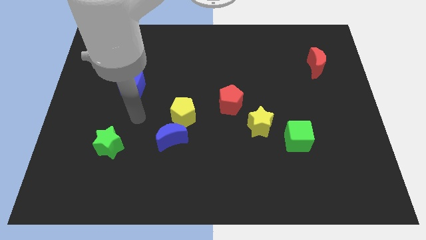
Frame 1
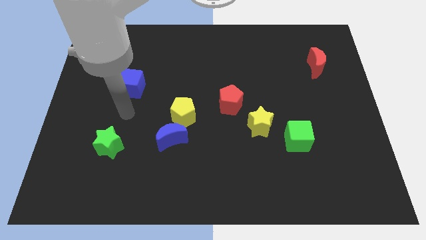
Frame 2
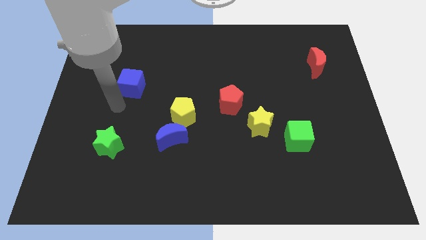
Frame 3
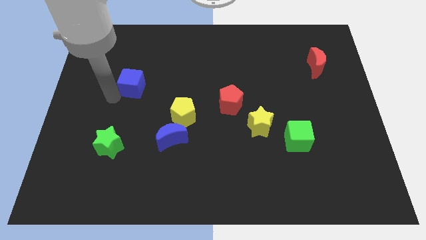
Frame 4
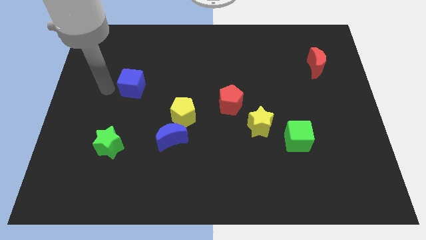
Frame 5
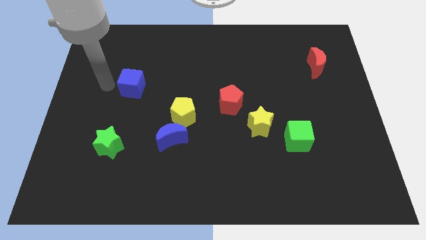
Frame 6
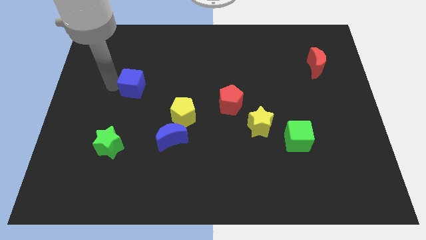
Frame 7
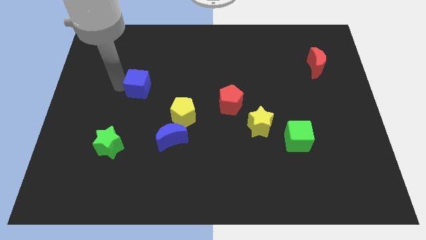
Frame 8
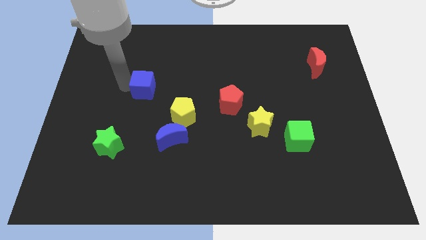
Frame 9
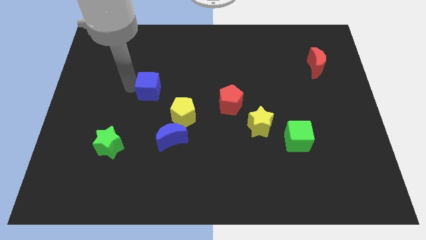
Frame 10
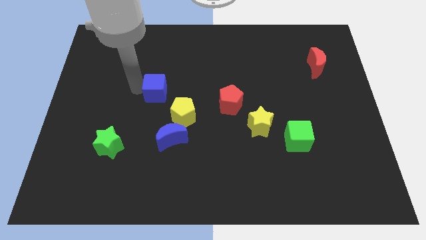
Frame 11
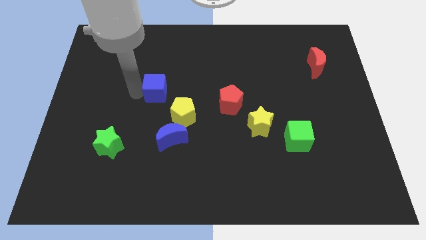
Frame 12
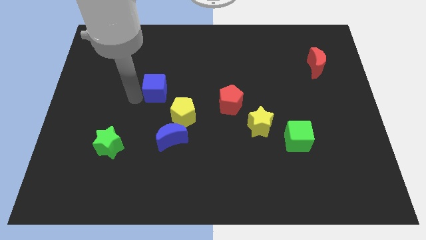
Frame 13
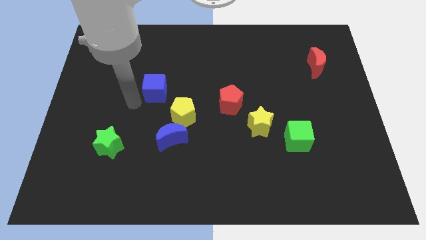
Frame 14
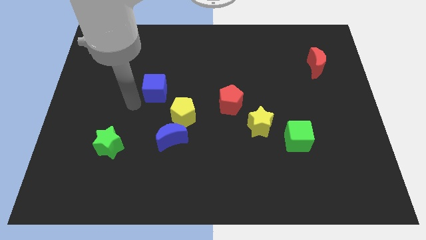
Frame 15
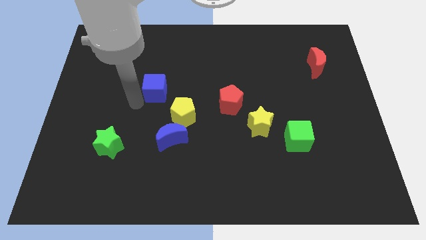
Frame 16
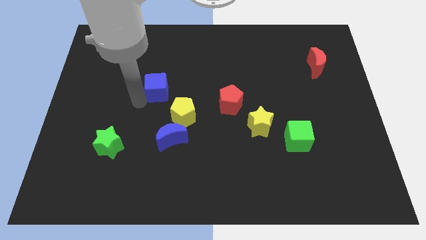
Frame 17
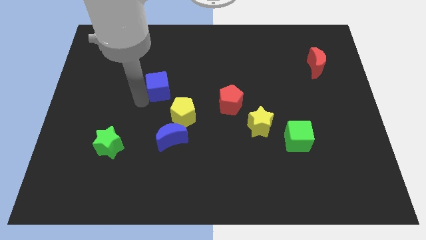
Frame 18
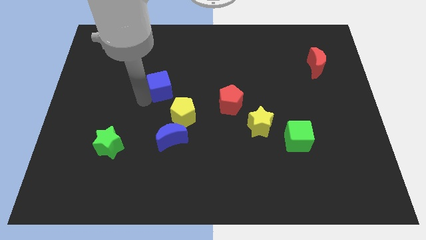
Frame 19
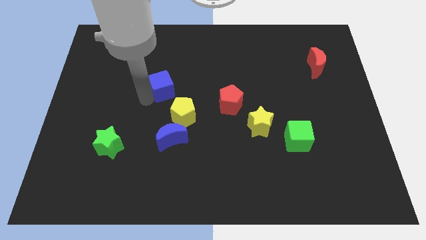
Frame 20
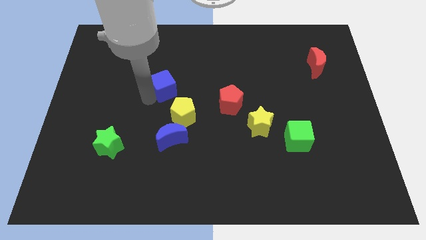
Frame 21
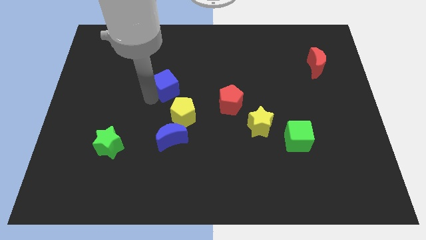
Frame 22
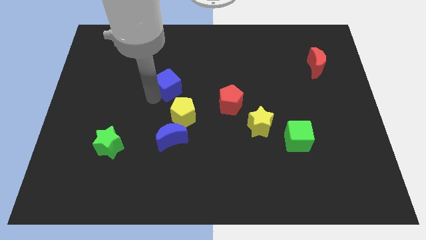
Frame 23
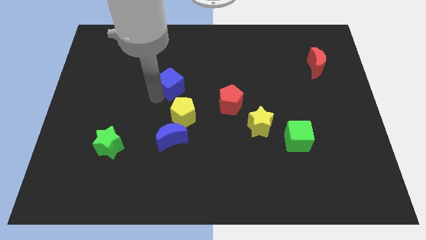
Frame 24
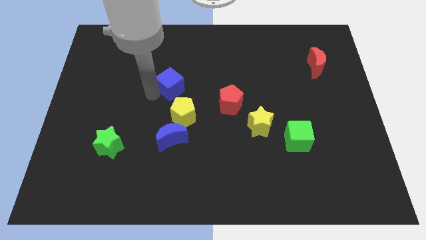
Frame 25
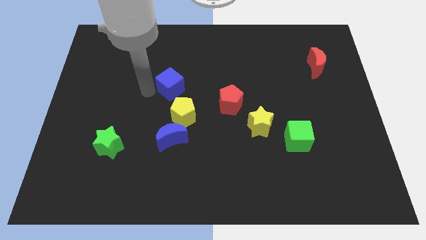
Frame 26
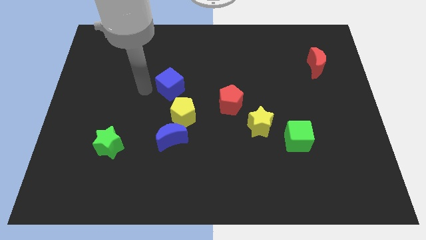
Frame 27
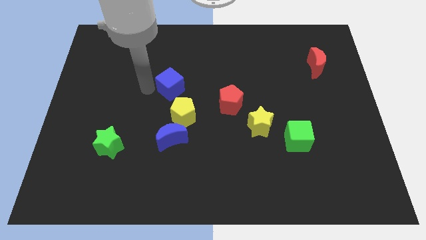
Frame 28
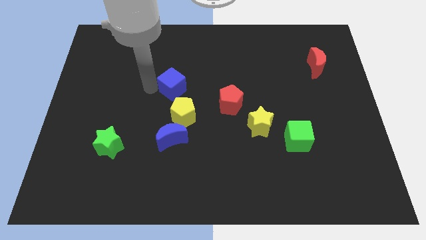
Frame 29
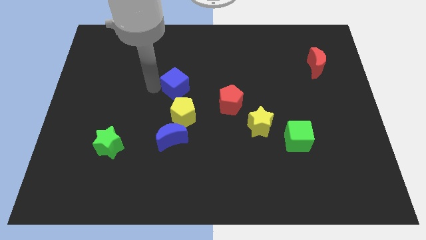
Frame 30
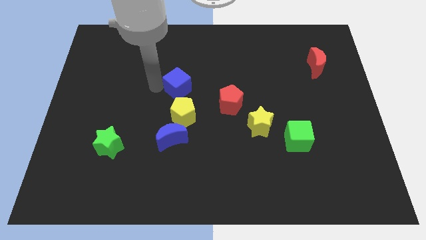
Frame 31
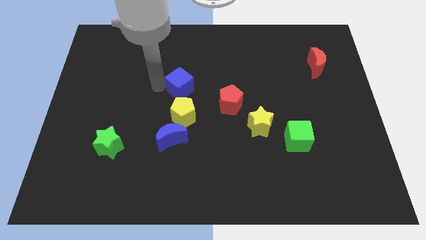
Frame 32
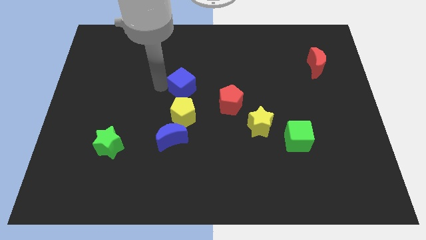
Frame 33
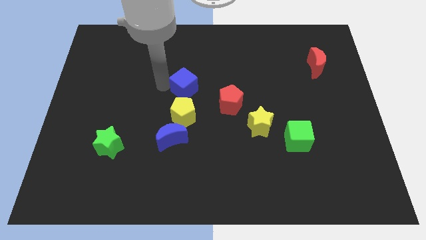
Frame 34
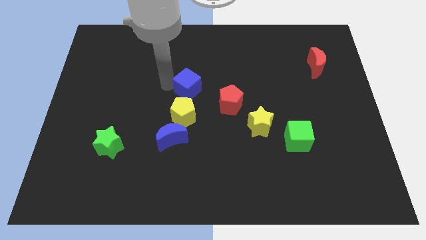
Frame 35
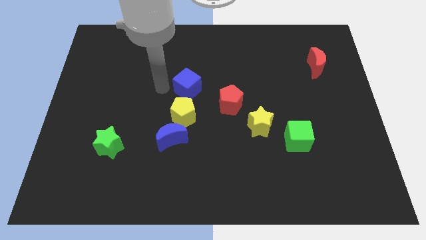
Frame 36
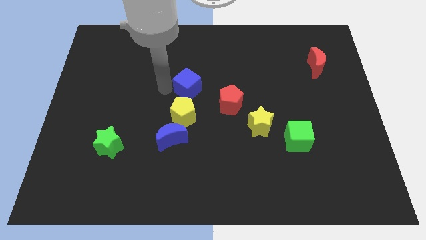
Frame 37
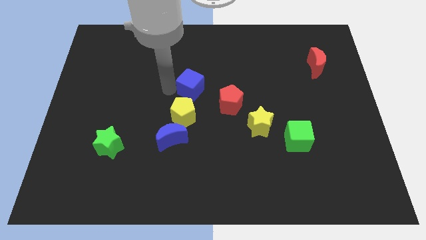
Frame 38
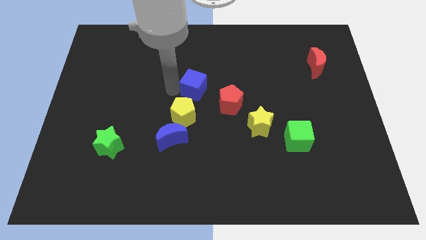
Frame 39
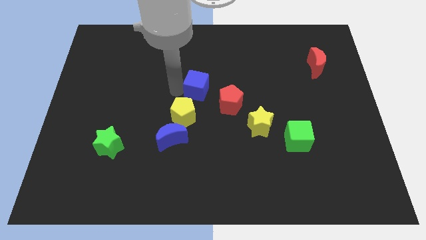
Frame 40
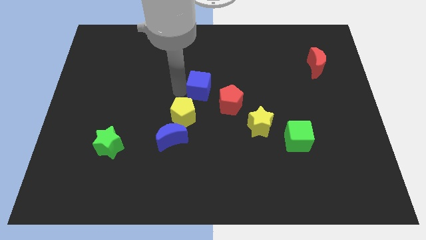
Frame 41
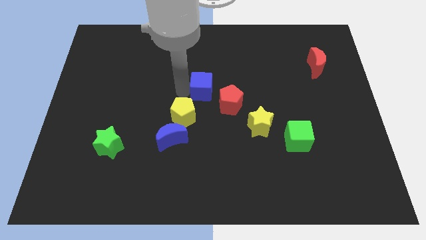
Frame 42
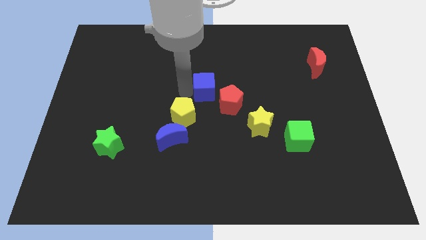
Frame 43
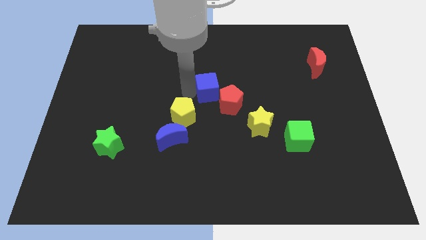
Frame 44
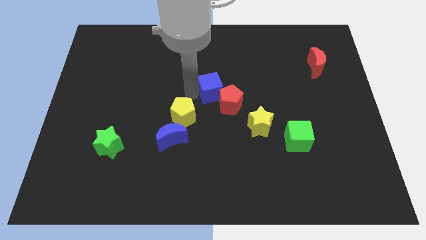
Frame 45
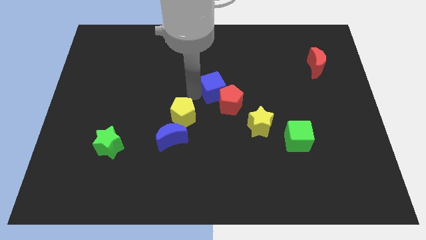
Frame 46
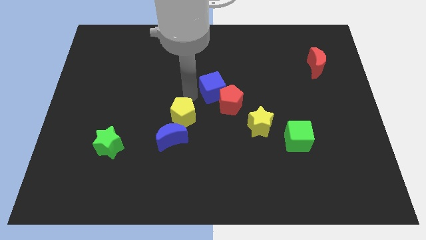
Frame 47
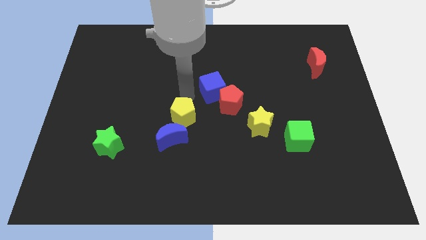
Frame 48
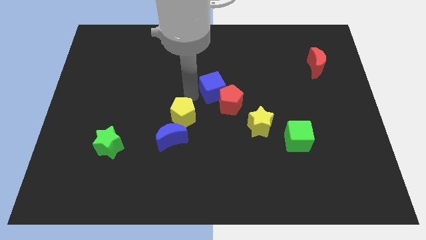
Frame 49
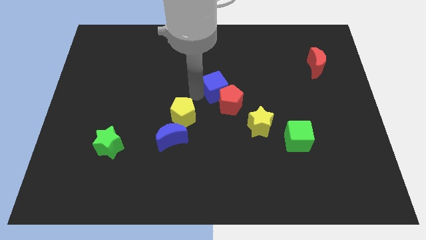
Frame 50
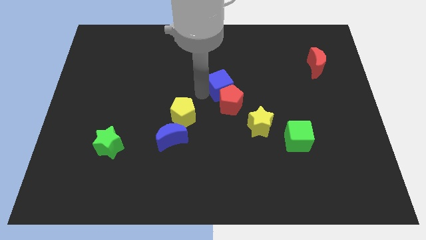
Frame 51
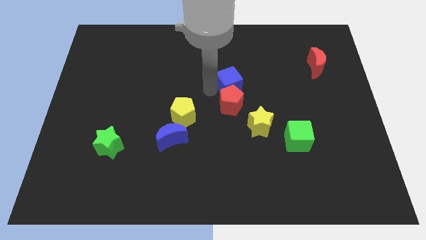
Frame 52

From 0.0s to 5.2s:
put the blue cube diagonally up and to the right of the red pentagon

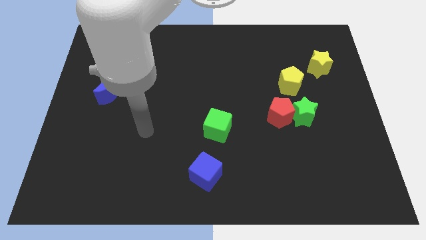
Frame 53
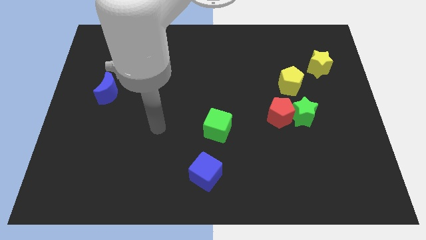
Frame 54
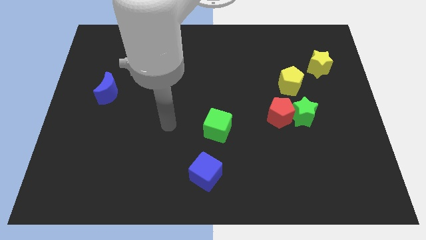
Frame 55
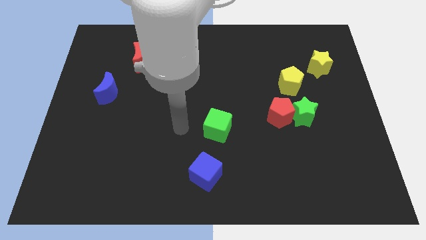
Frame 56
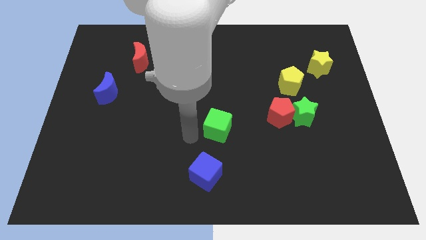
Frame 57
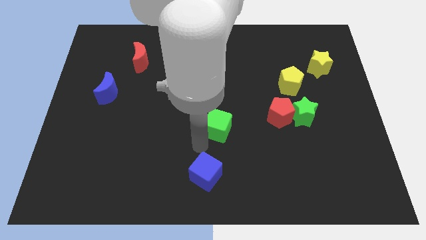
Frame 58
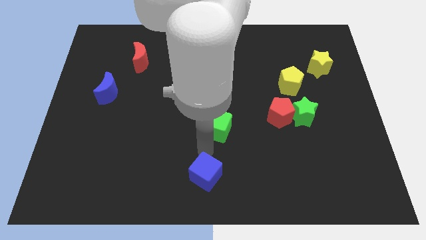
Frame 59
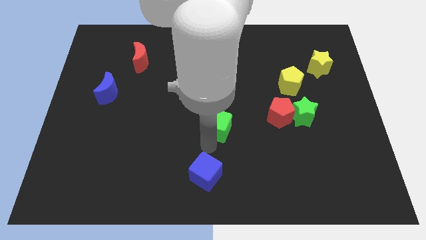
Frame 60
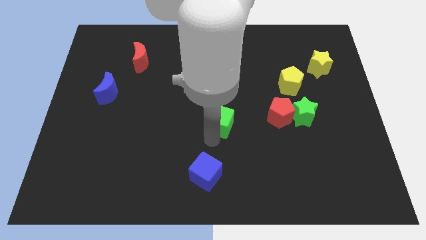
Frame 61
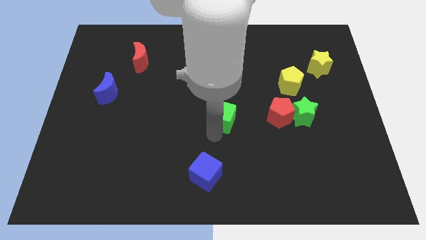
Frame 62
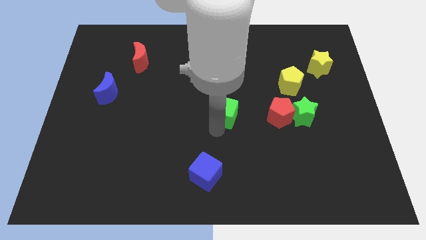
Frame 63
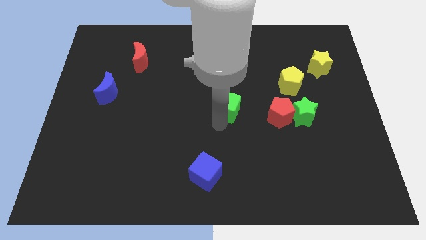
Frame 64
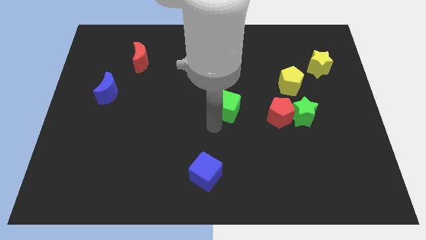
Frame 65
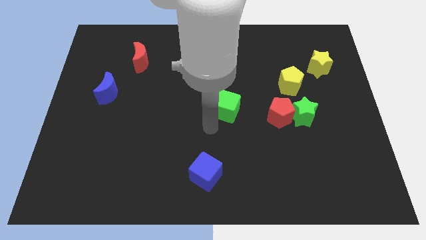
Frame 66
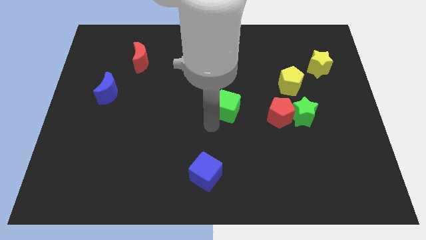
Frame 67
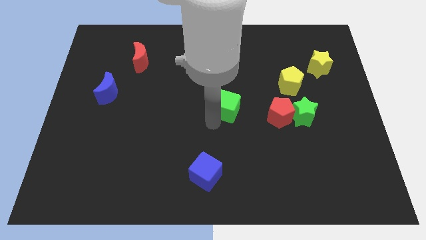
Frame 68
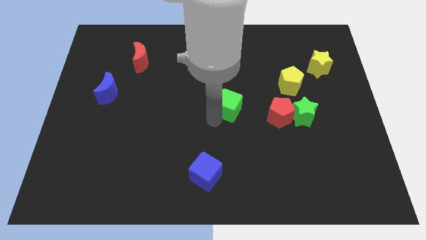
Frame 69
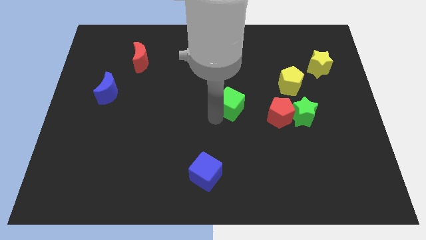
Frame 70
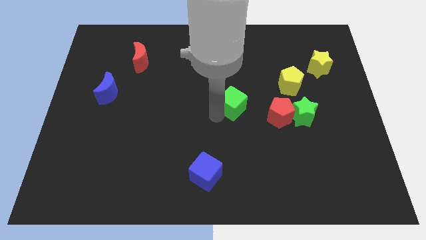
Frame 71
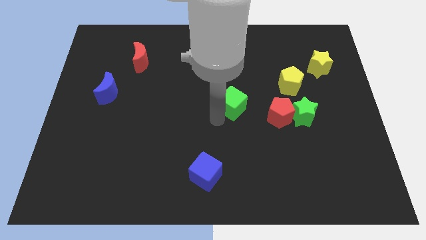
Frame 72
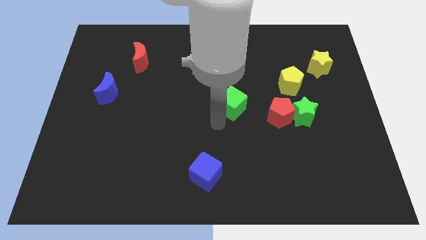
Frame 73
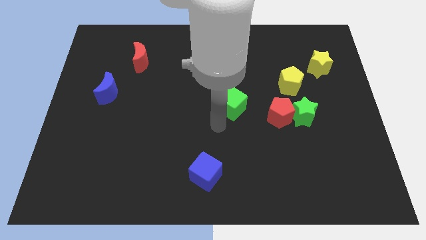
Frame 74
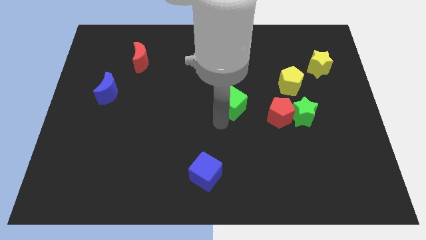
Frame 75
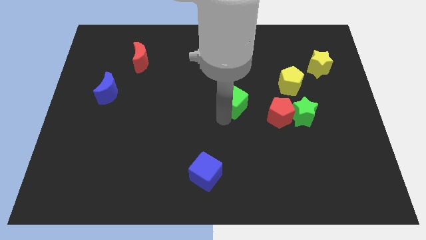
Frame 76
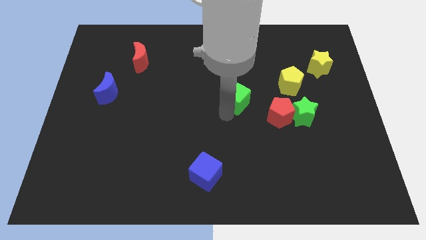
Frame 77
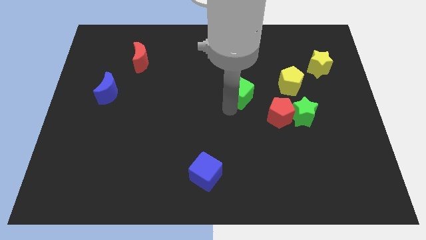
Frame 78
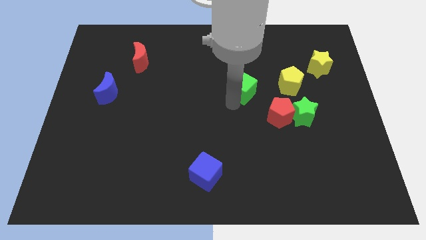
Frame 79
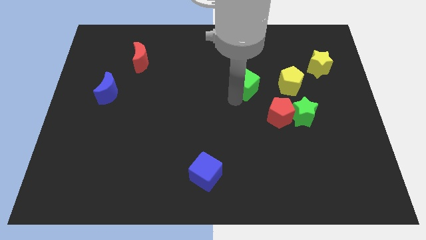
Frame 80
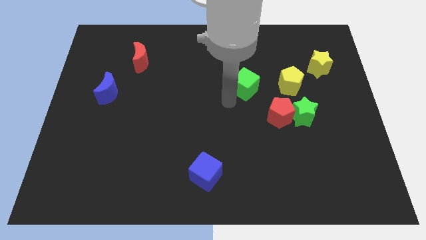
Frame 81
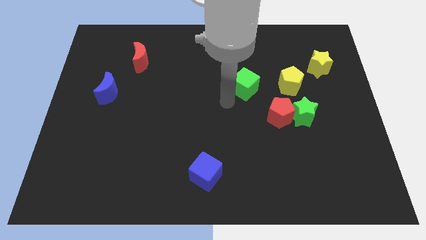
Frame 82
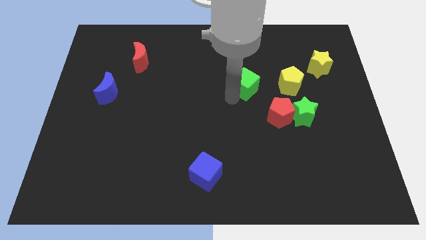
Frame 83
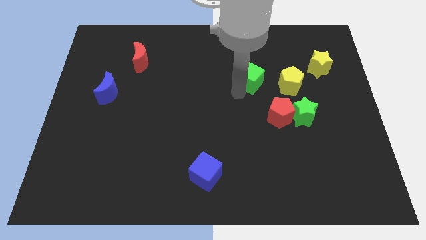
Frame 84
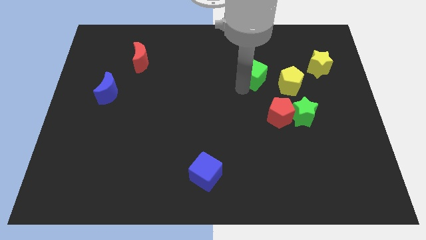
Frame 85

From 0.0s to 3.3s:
move the green cube to the top left side of the yellow pentagon
